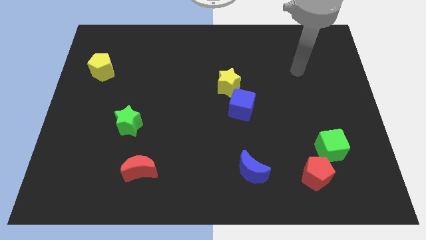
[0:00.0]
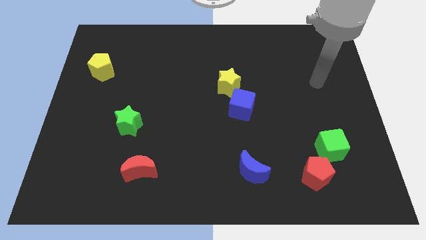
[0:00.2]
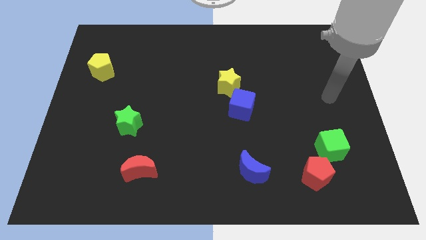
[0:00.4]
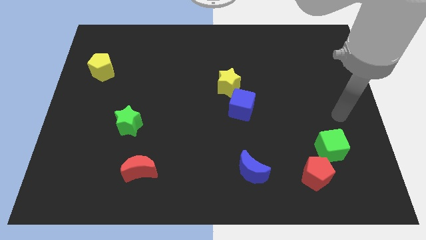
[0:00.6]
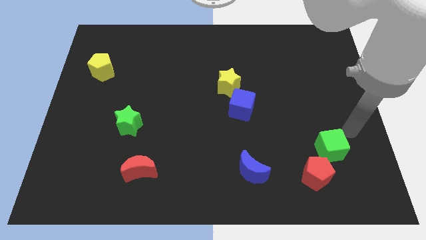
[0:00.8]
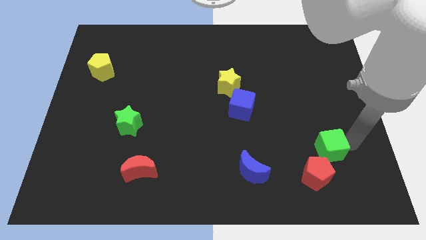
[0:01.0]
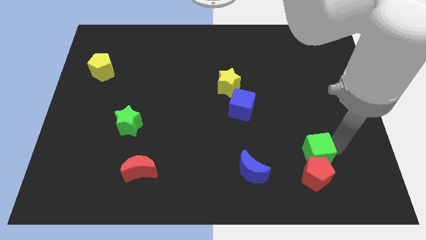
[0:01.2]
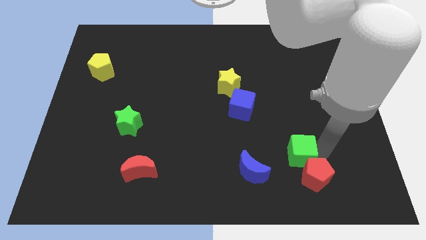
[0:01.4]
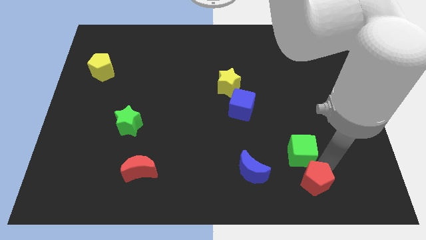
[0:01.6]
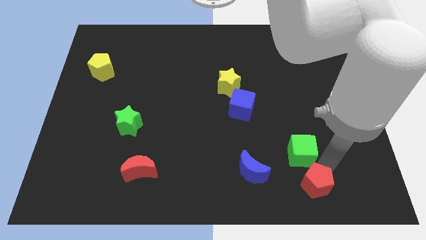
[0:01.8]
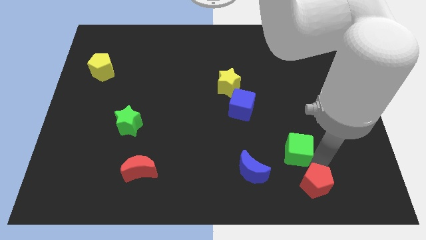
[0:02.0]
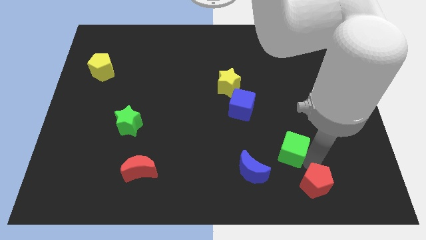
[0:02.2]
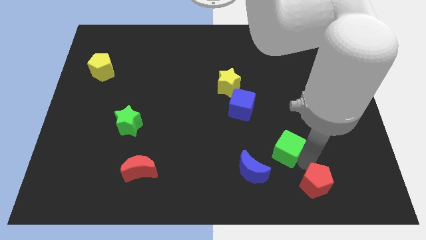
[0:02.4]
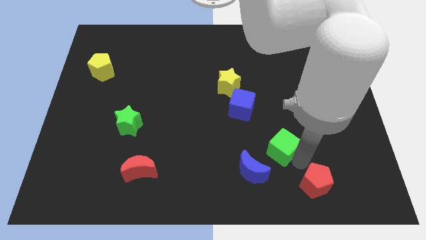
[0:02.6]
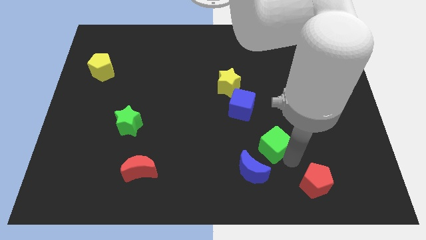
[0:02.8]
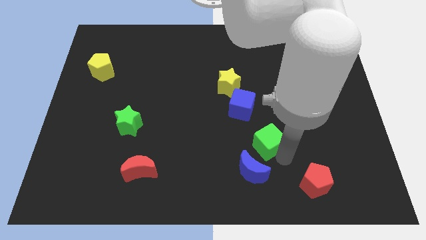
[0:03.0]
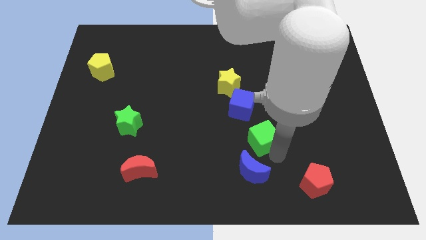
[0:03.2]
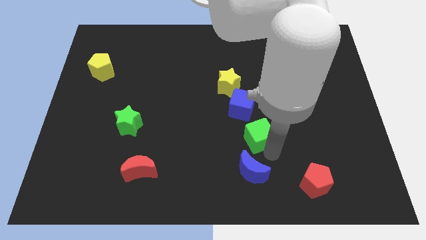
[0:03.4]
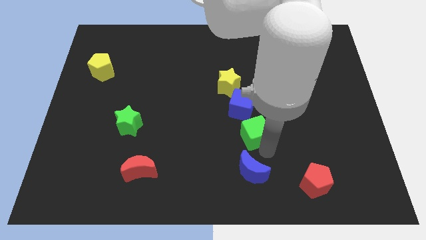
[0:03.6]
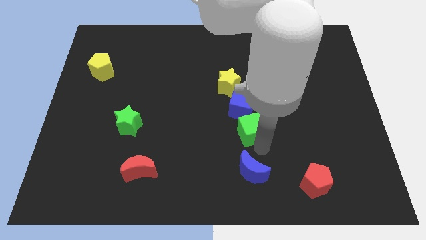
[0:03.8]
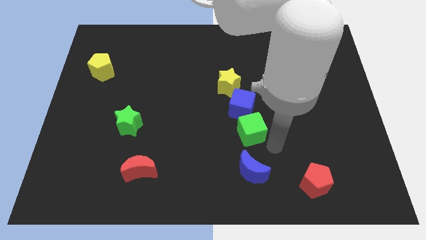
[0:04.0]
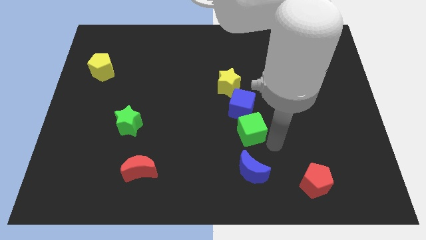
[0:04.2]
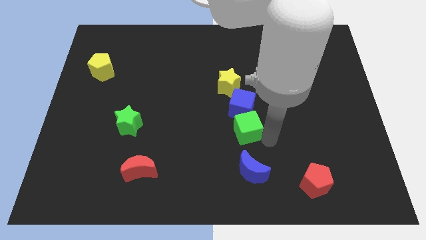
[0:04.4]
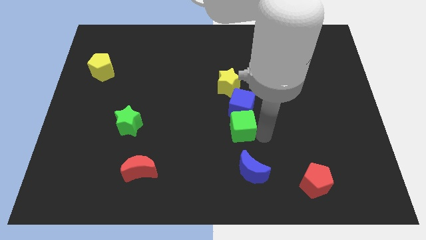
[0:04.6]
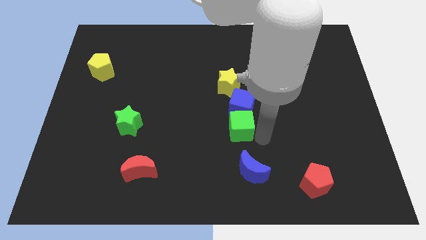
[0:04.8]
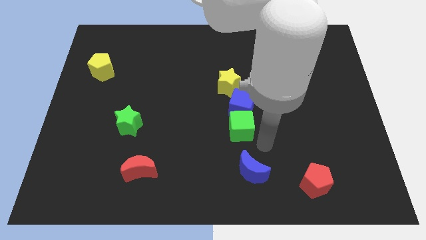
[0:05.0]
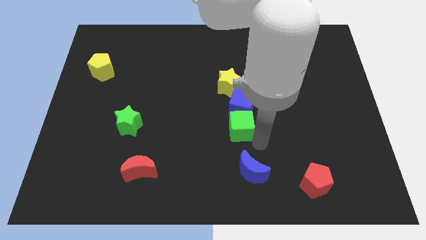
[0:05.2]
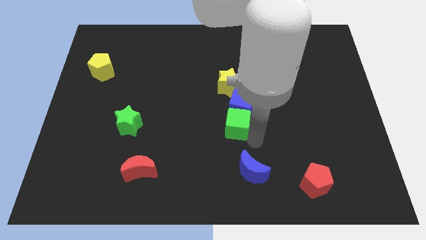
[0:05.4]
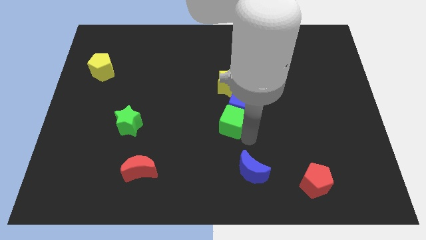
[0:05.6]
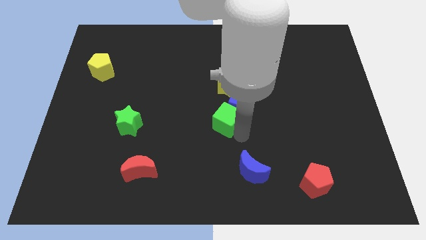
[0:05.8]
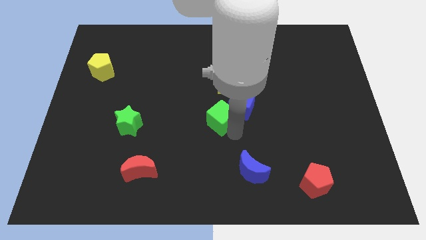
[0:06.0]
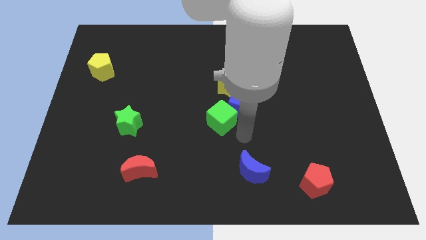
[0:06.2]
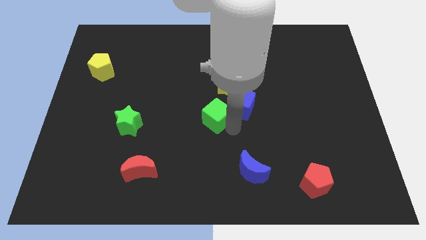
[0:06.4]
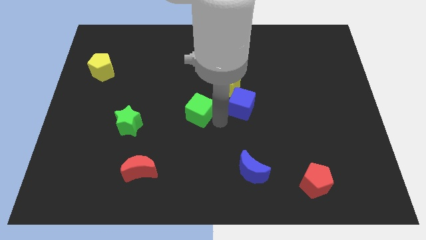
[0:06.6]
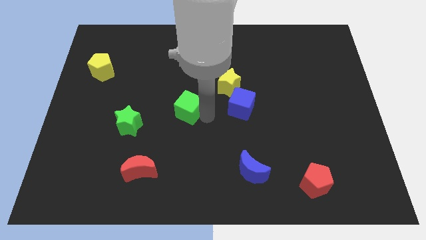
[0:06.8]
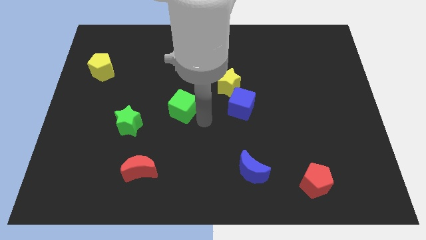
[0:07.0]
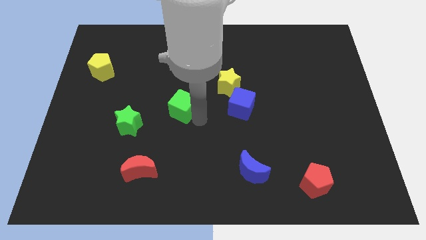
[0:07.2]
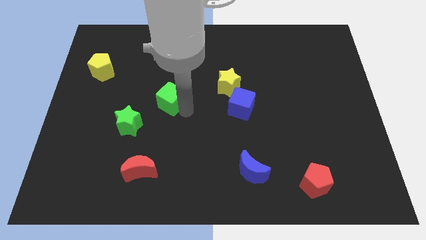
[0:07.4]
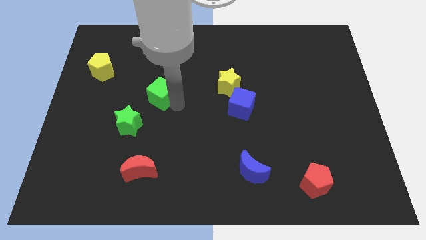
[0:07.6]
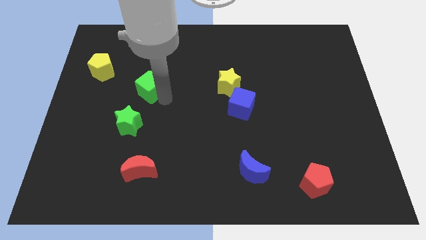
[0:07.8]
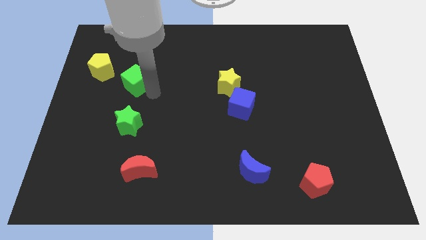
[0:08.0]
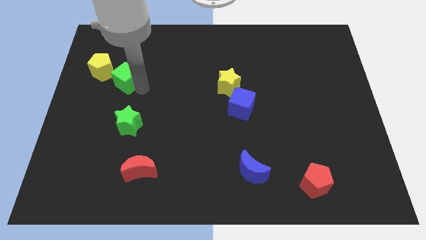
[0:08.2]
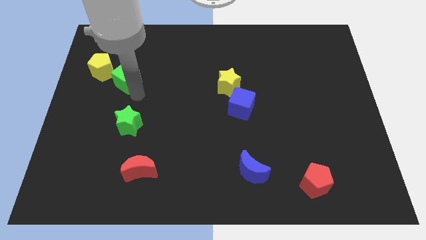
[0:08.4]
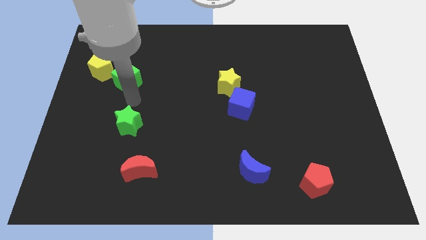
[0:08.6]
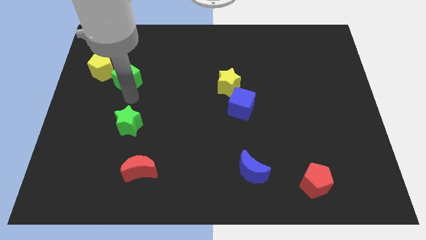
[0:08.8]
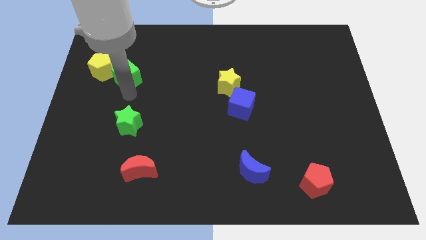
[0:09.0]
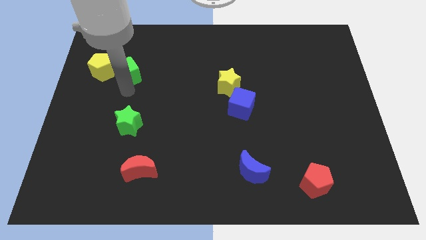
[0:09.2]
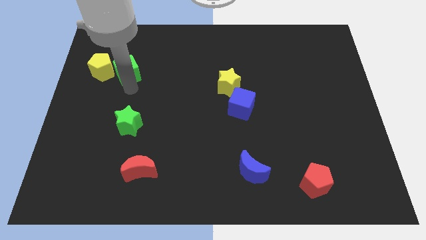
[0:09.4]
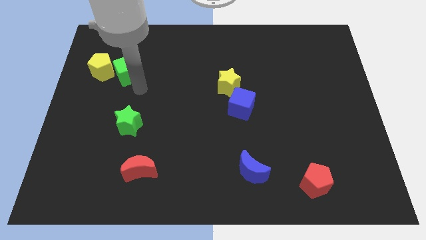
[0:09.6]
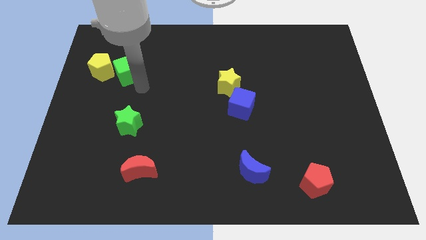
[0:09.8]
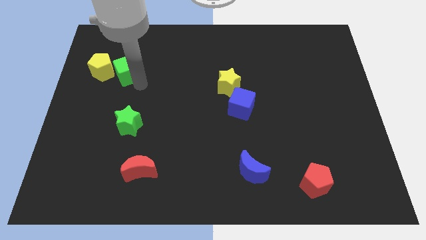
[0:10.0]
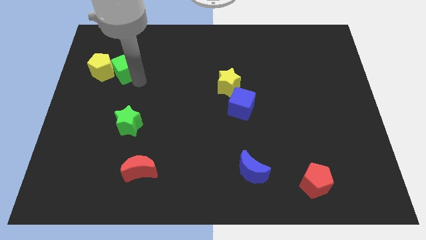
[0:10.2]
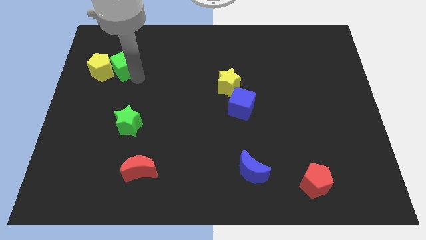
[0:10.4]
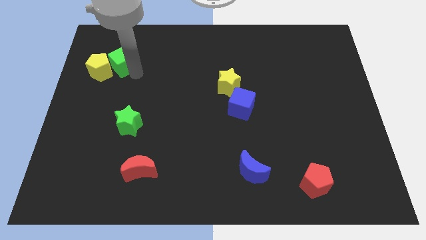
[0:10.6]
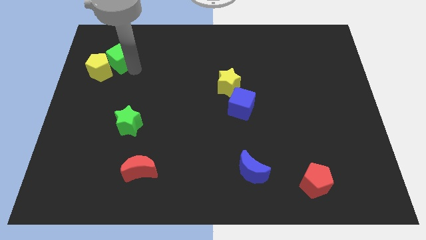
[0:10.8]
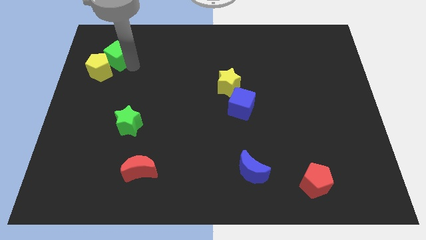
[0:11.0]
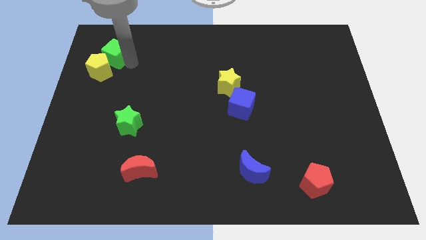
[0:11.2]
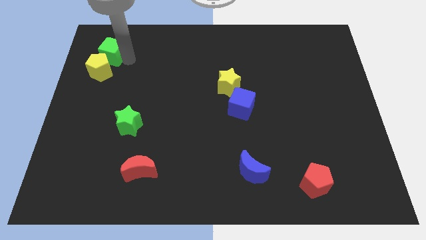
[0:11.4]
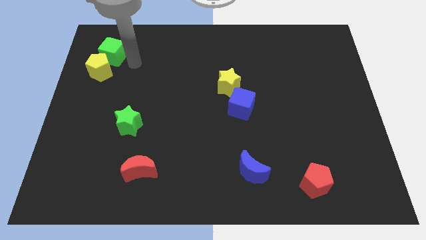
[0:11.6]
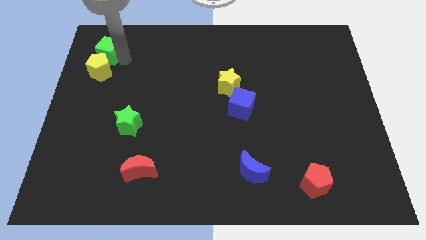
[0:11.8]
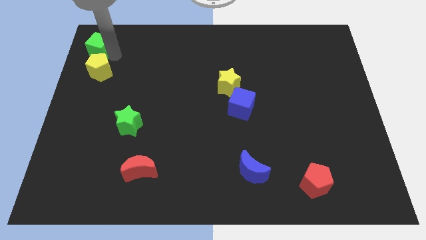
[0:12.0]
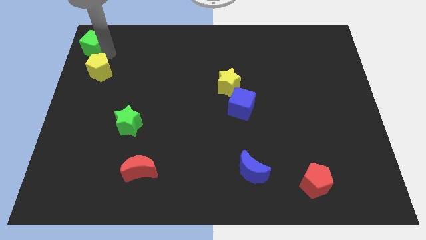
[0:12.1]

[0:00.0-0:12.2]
move the green cube to the top left

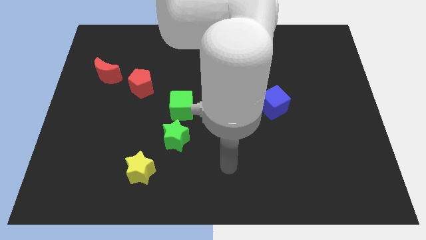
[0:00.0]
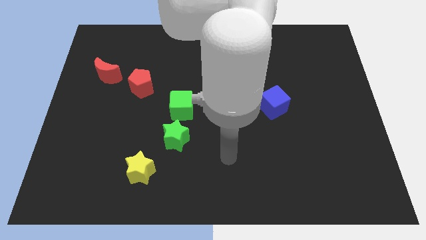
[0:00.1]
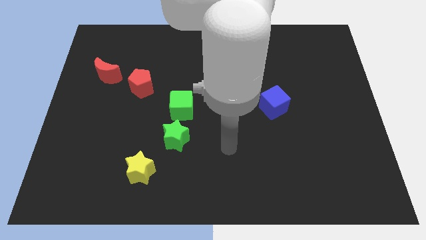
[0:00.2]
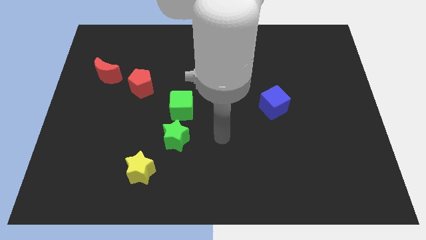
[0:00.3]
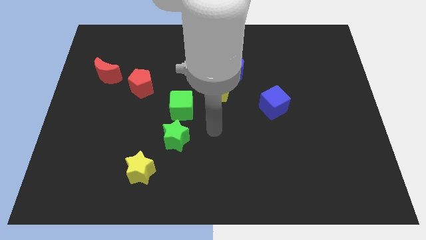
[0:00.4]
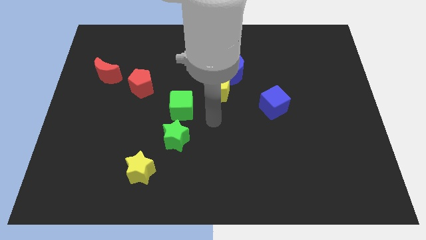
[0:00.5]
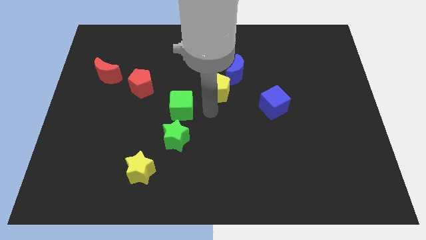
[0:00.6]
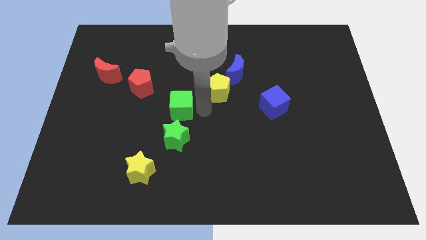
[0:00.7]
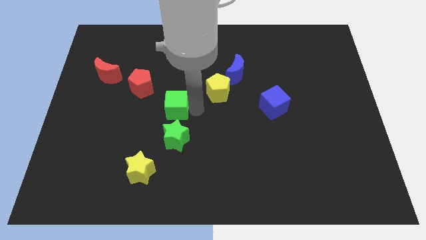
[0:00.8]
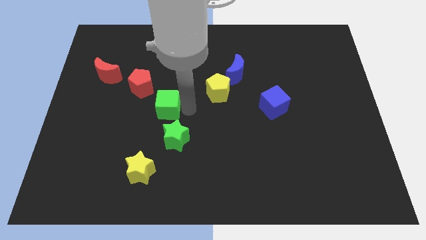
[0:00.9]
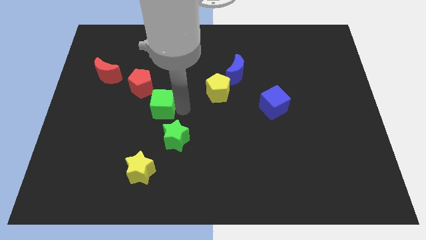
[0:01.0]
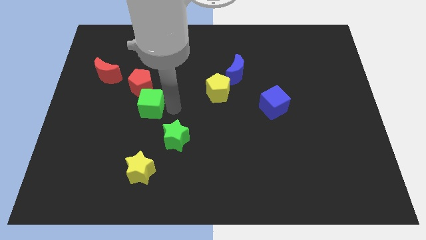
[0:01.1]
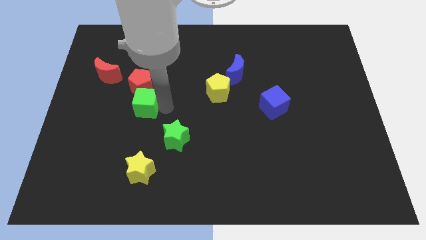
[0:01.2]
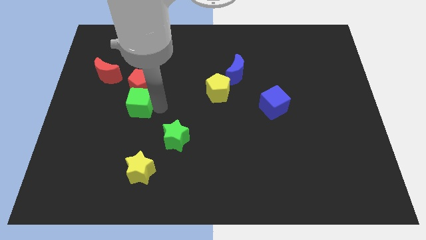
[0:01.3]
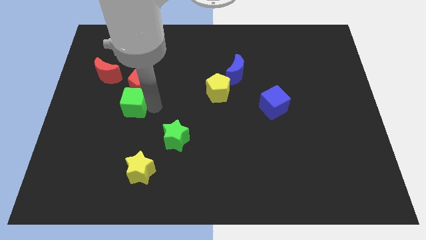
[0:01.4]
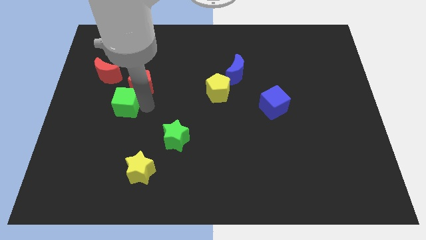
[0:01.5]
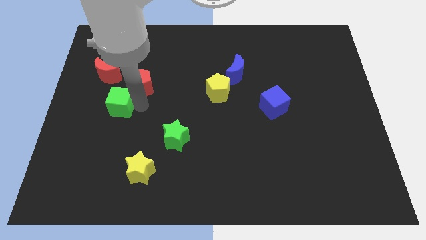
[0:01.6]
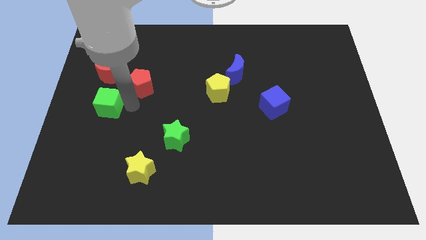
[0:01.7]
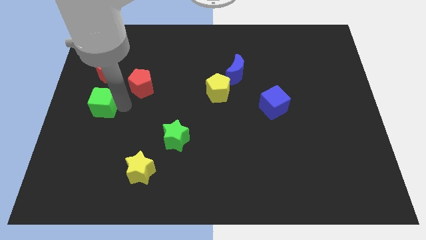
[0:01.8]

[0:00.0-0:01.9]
slide the green cube to the center left
